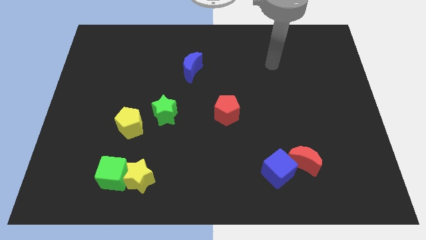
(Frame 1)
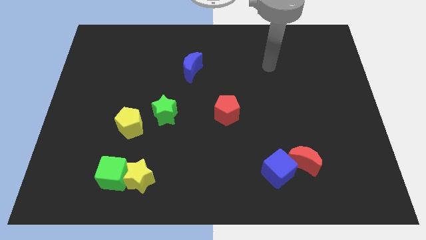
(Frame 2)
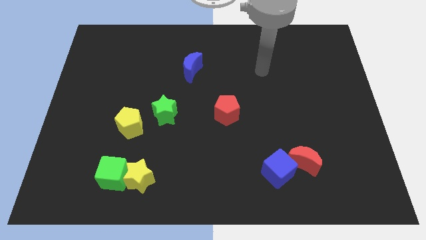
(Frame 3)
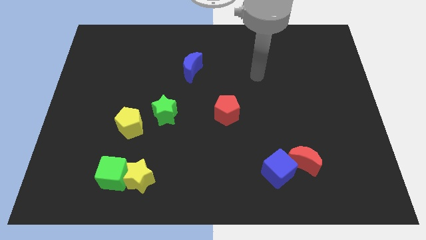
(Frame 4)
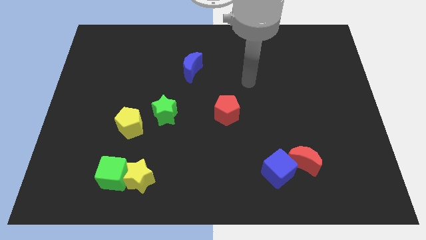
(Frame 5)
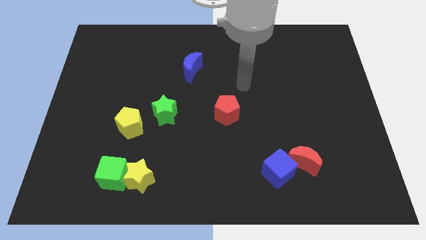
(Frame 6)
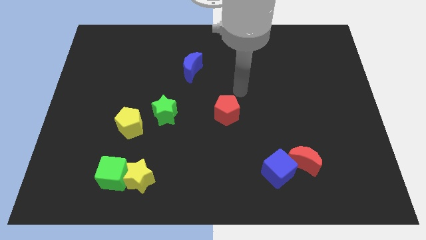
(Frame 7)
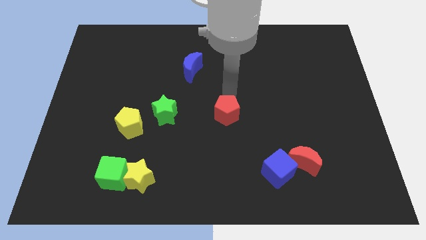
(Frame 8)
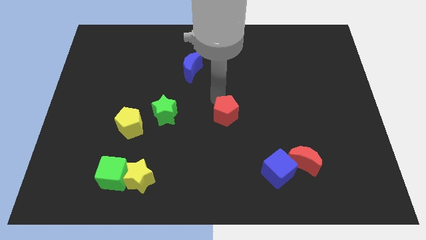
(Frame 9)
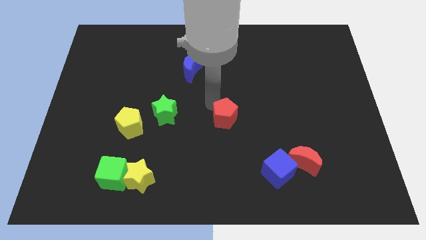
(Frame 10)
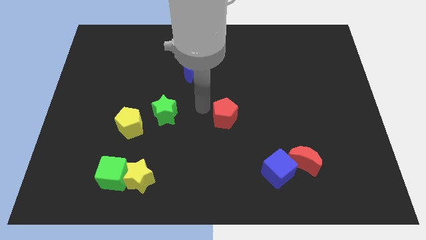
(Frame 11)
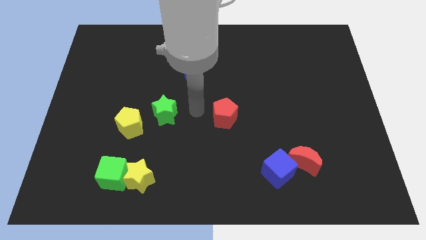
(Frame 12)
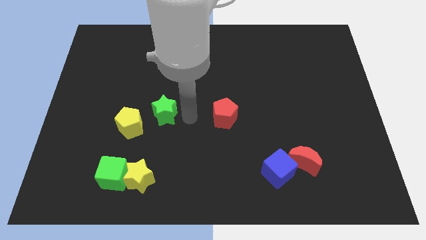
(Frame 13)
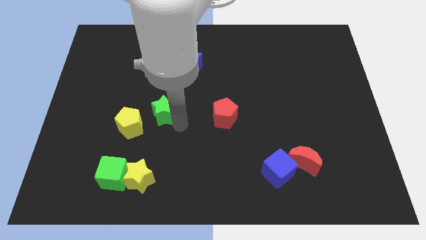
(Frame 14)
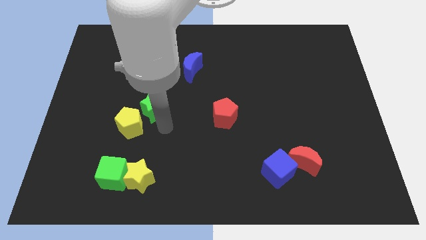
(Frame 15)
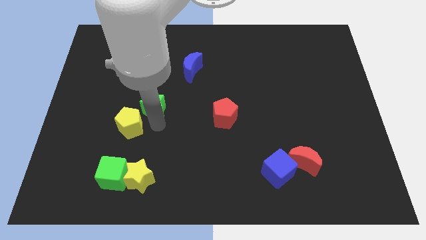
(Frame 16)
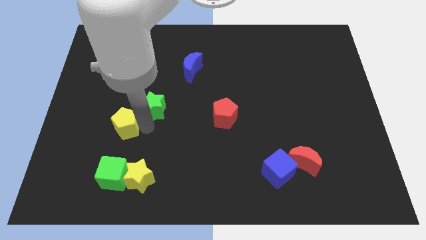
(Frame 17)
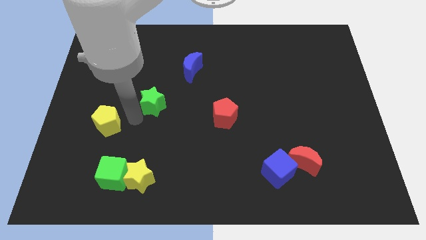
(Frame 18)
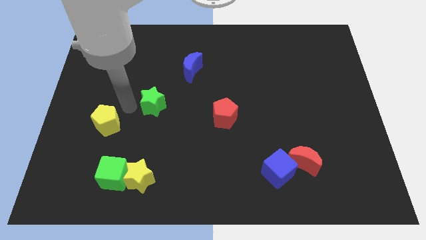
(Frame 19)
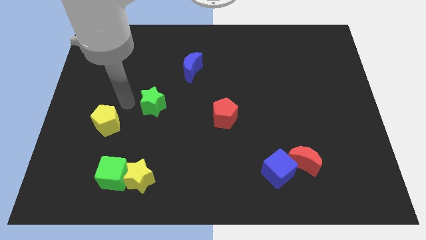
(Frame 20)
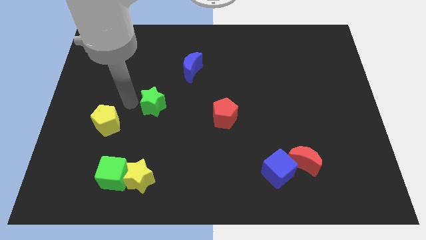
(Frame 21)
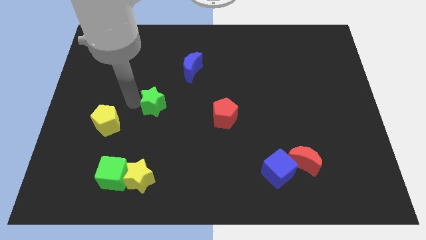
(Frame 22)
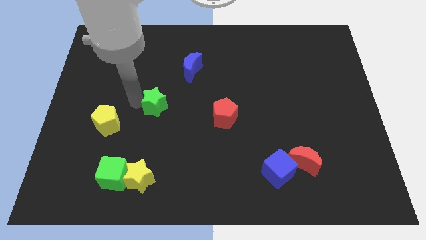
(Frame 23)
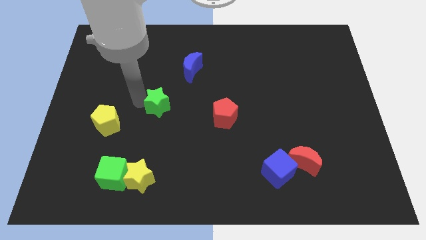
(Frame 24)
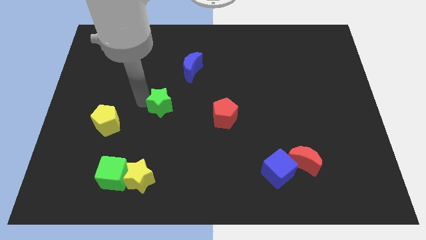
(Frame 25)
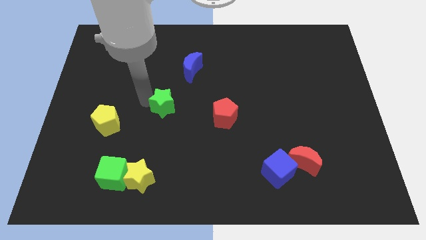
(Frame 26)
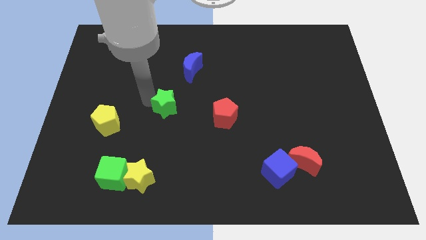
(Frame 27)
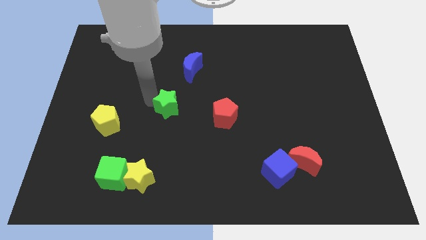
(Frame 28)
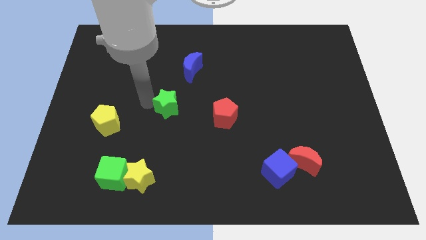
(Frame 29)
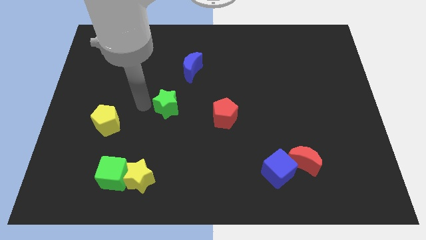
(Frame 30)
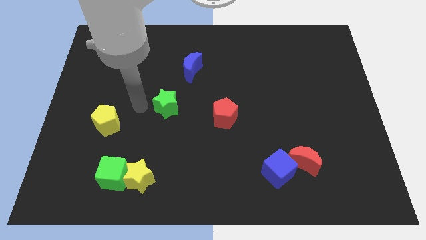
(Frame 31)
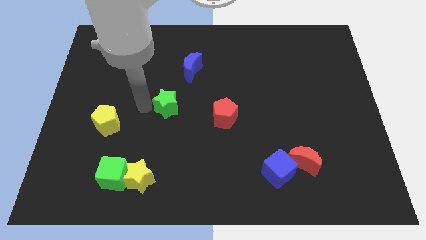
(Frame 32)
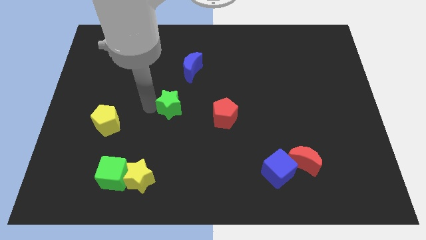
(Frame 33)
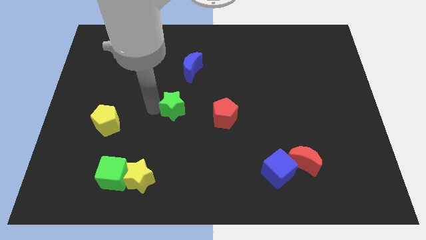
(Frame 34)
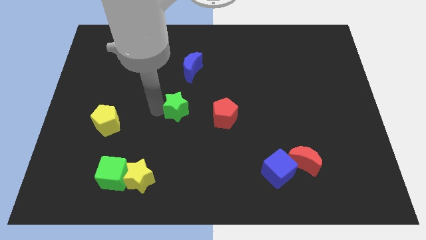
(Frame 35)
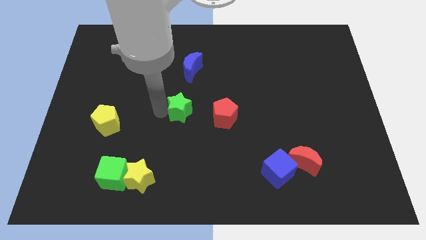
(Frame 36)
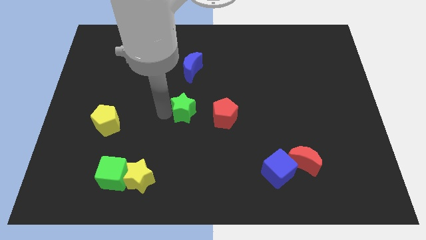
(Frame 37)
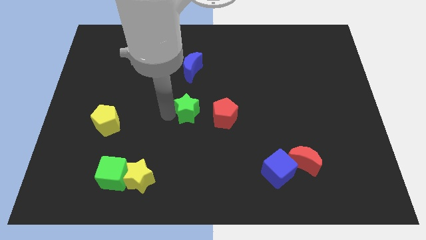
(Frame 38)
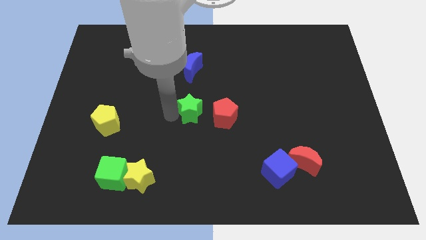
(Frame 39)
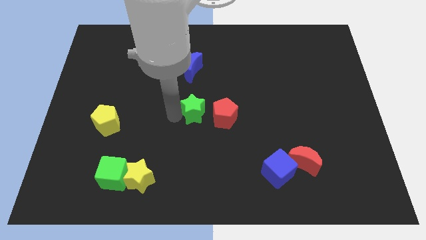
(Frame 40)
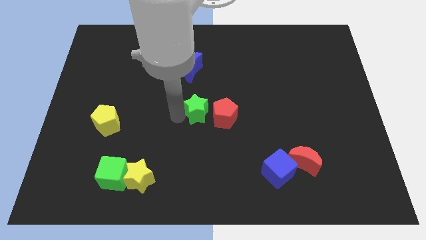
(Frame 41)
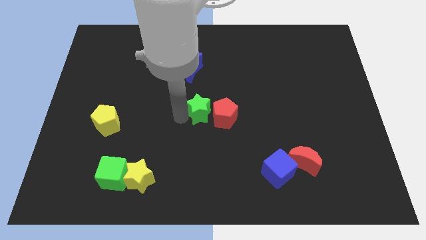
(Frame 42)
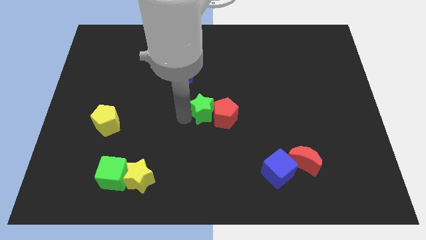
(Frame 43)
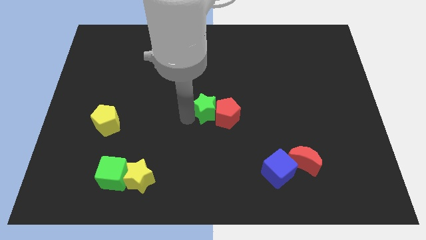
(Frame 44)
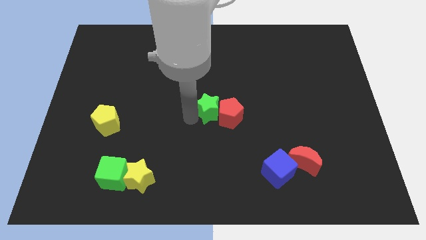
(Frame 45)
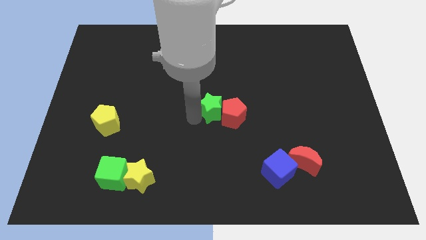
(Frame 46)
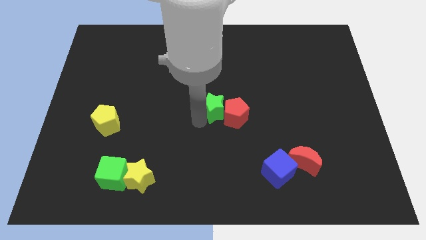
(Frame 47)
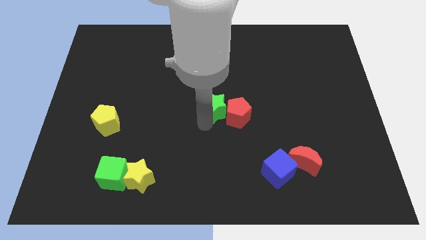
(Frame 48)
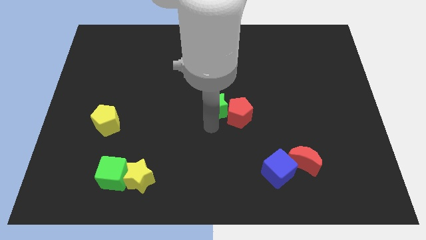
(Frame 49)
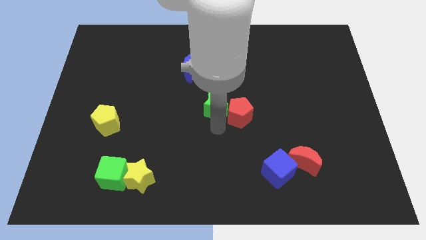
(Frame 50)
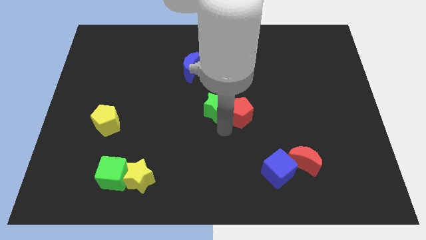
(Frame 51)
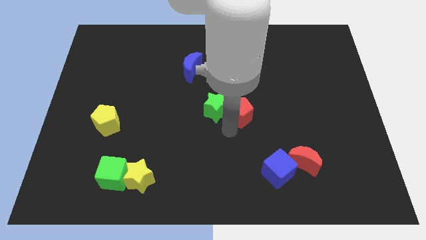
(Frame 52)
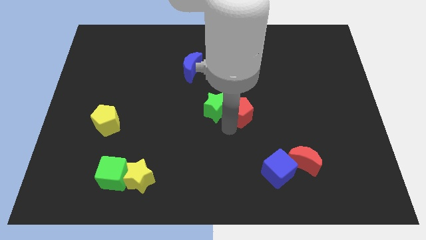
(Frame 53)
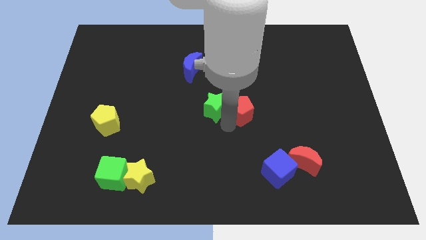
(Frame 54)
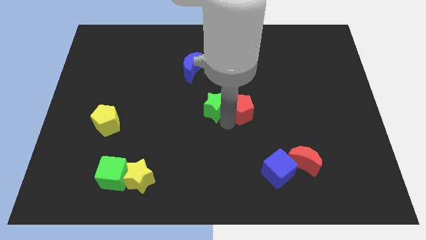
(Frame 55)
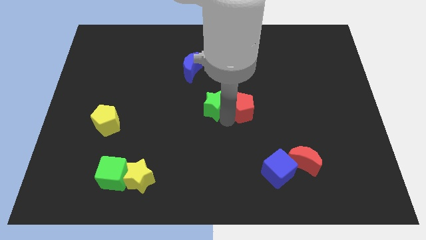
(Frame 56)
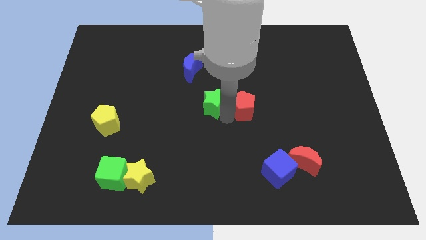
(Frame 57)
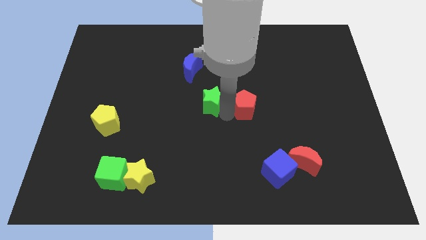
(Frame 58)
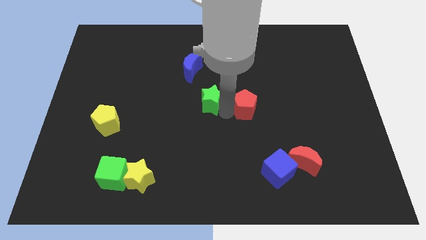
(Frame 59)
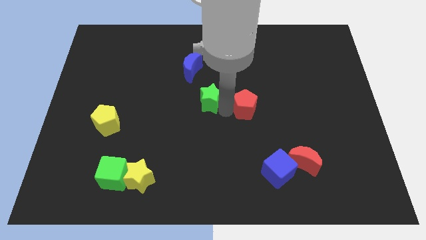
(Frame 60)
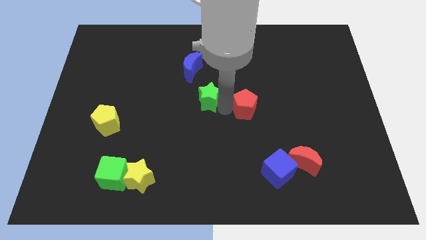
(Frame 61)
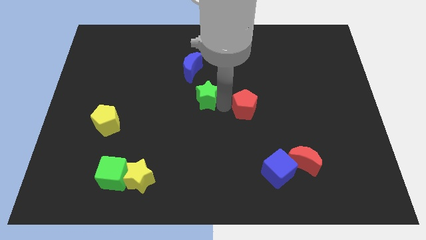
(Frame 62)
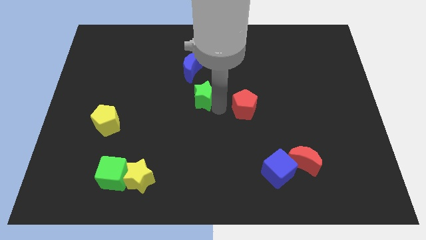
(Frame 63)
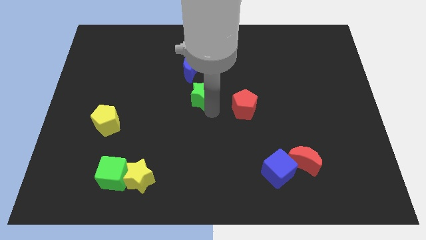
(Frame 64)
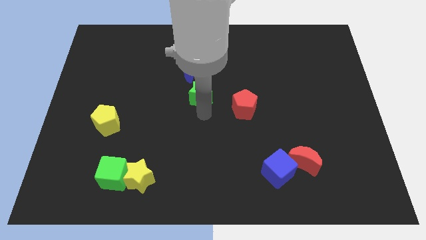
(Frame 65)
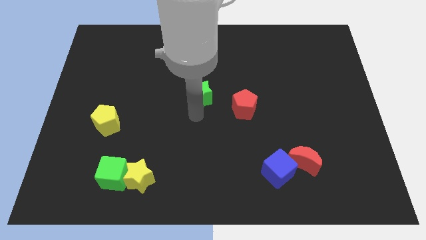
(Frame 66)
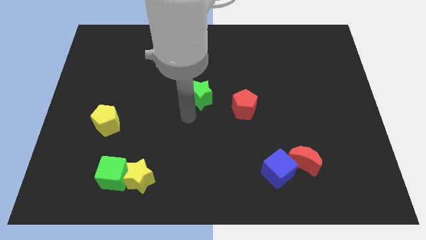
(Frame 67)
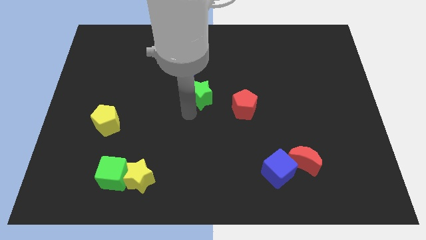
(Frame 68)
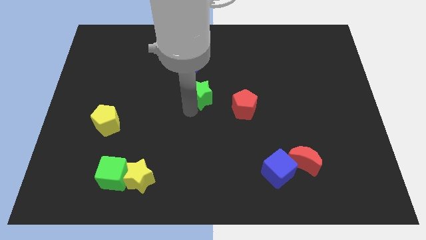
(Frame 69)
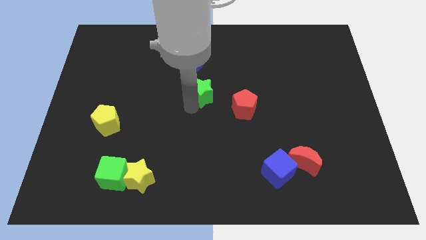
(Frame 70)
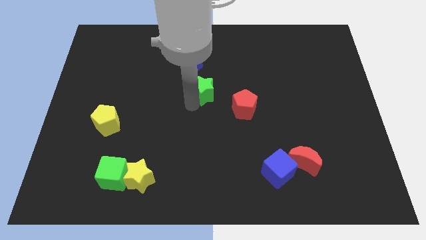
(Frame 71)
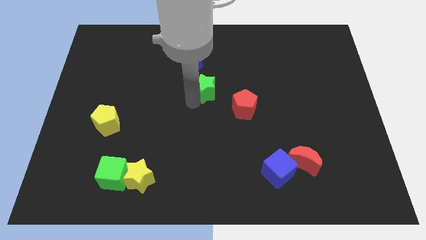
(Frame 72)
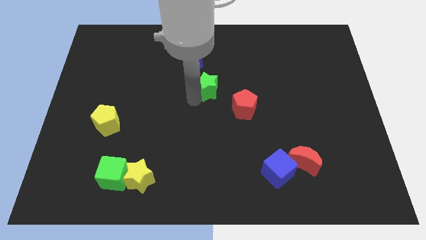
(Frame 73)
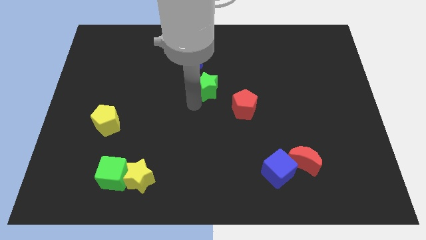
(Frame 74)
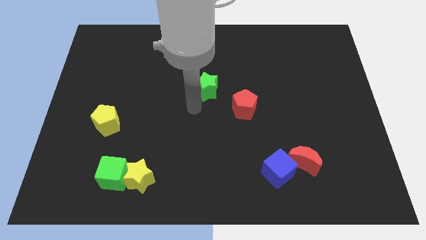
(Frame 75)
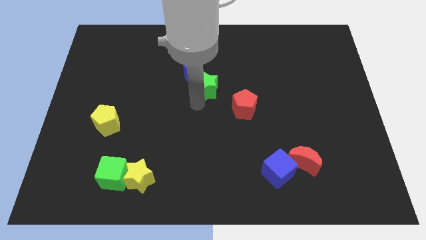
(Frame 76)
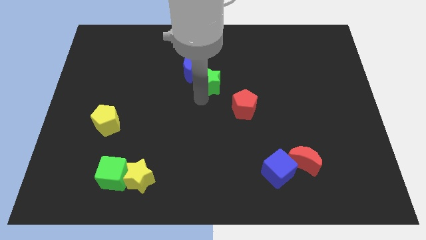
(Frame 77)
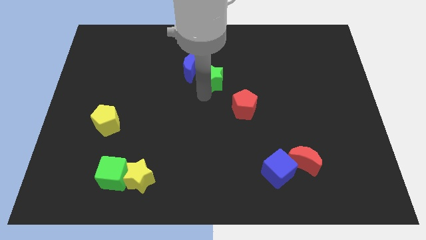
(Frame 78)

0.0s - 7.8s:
move the green star just right of the blue moon

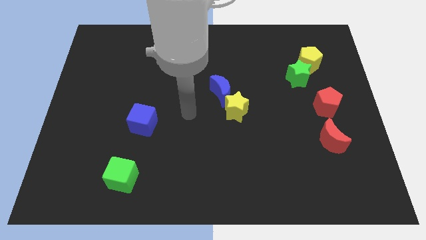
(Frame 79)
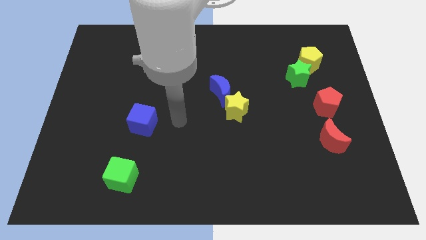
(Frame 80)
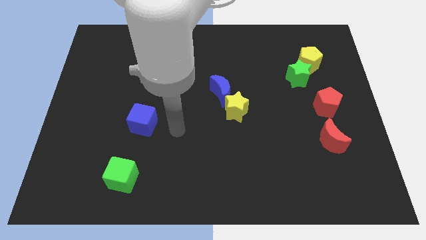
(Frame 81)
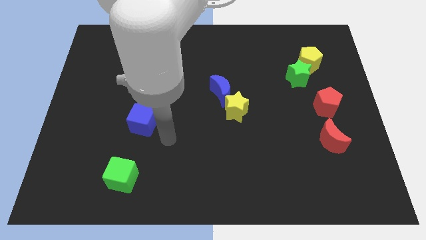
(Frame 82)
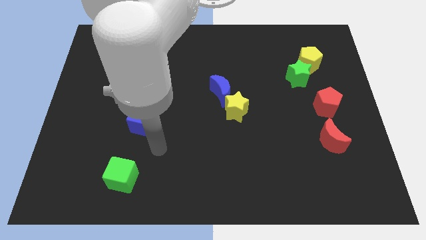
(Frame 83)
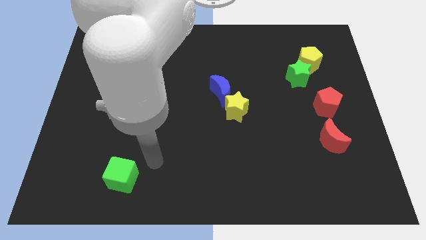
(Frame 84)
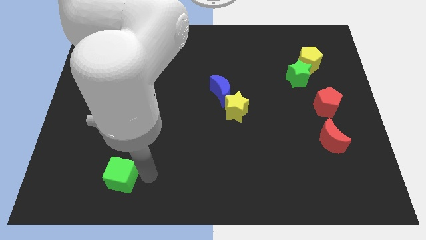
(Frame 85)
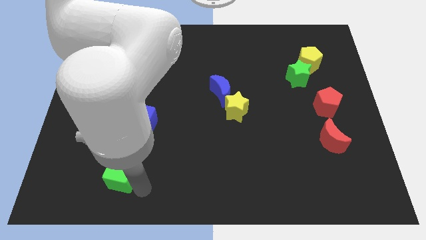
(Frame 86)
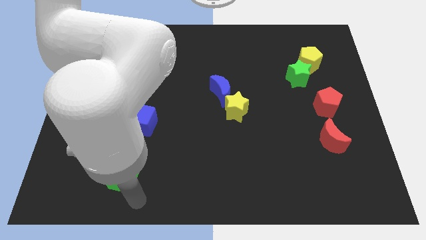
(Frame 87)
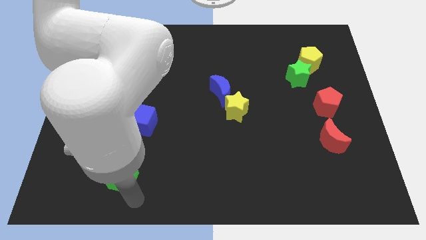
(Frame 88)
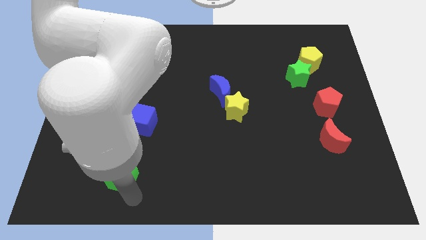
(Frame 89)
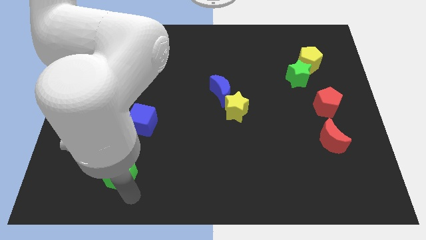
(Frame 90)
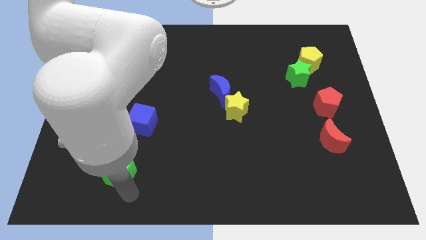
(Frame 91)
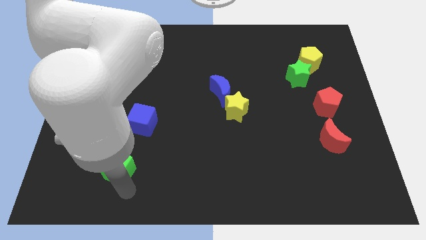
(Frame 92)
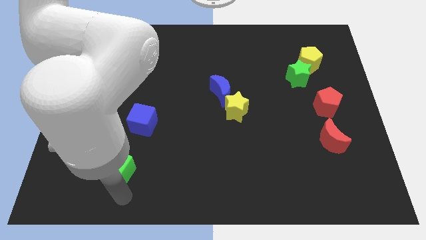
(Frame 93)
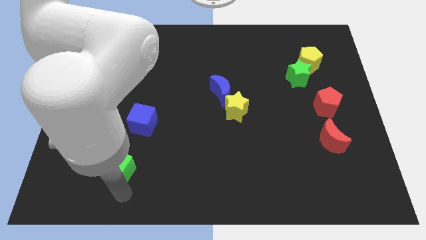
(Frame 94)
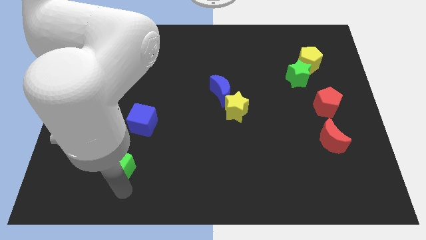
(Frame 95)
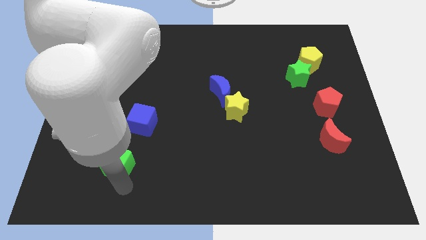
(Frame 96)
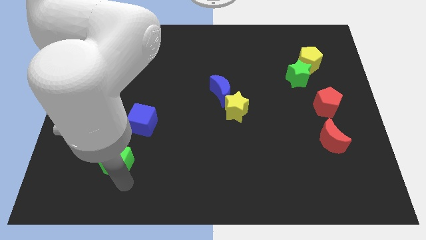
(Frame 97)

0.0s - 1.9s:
slide the green cube to the bottom left side of the blue cube
